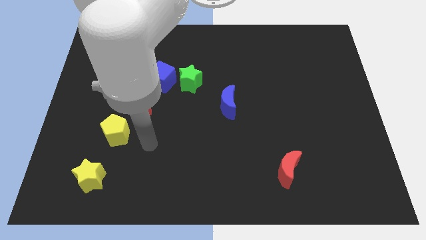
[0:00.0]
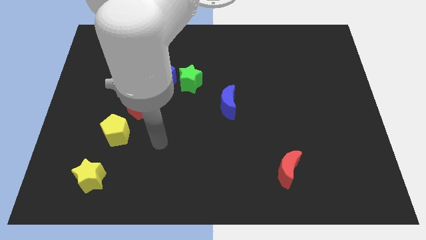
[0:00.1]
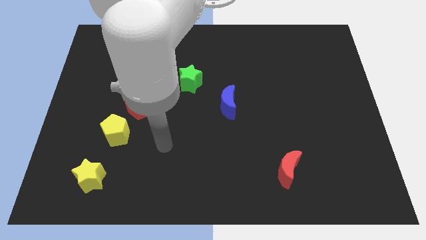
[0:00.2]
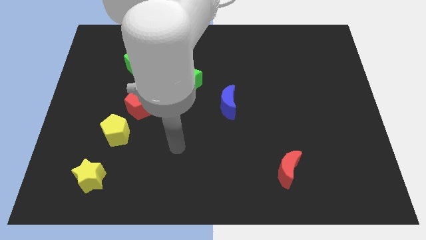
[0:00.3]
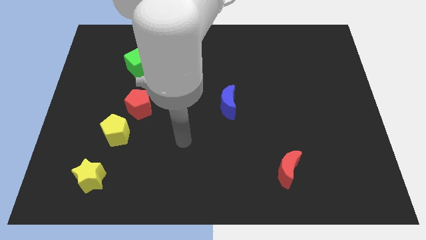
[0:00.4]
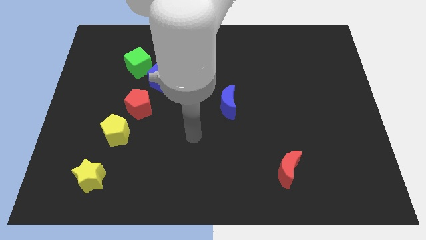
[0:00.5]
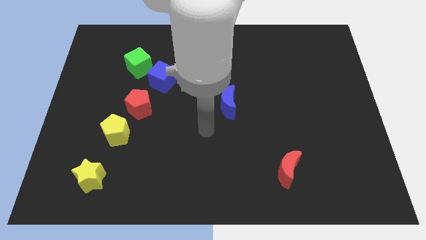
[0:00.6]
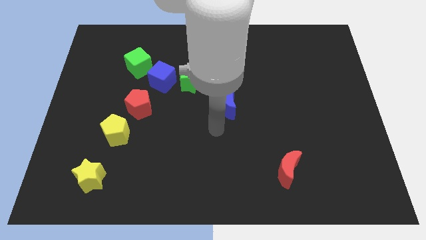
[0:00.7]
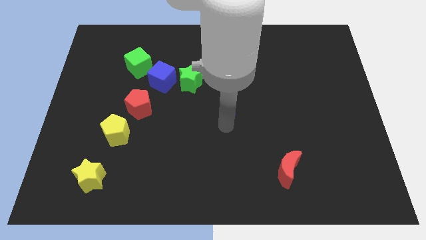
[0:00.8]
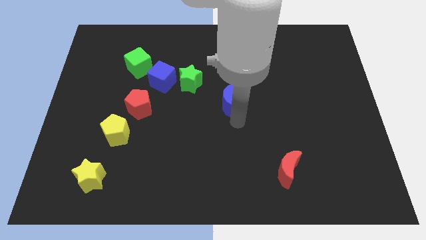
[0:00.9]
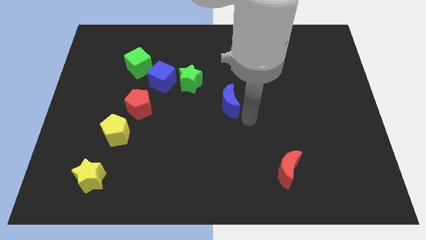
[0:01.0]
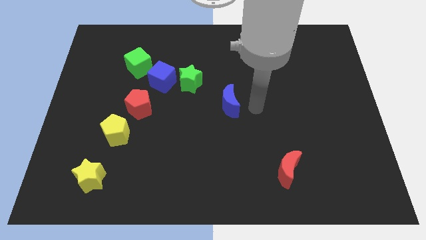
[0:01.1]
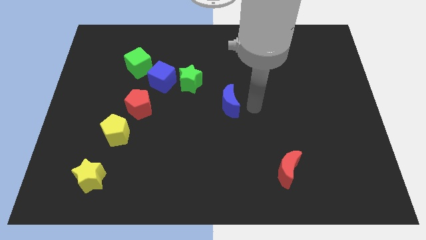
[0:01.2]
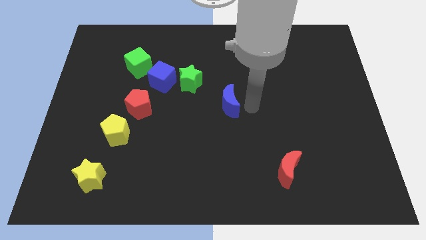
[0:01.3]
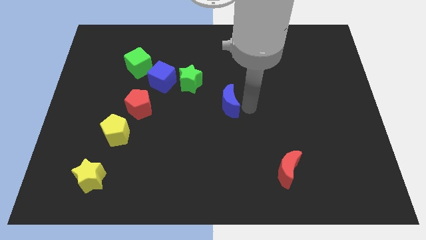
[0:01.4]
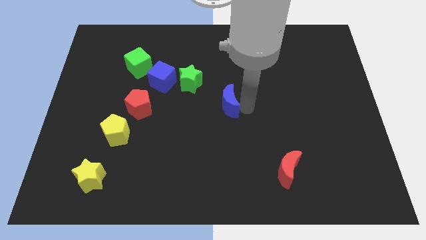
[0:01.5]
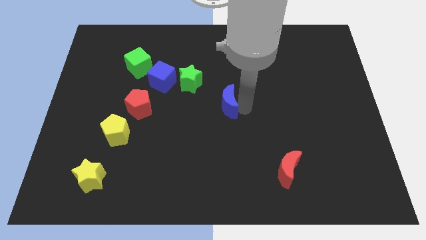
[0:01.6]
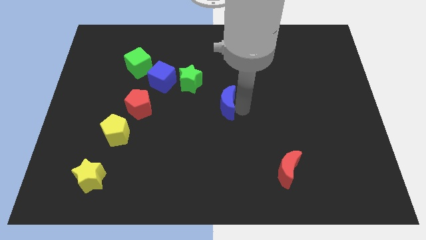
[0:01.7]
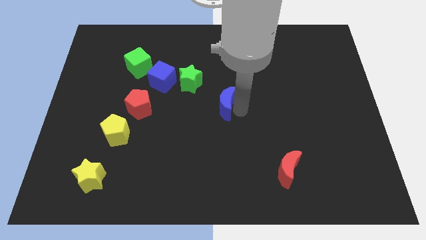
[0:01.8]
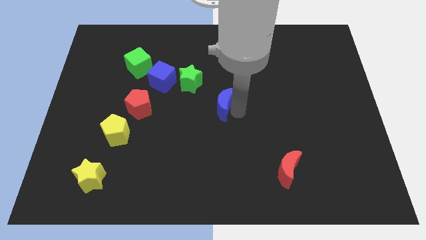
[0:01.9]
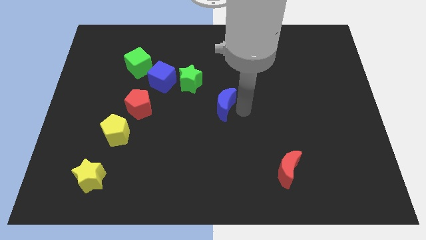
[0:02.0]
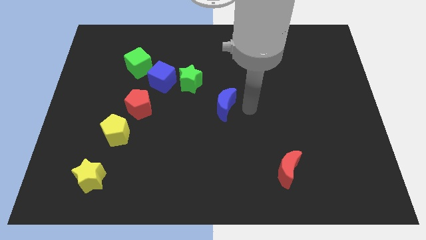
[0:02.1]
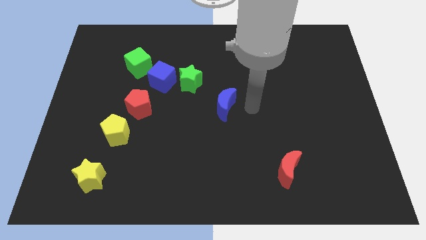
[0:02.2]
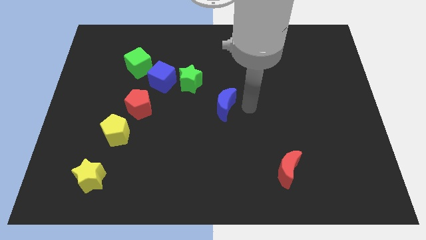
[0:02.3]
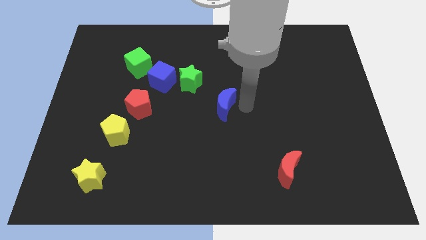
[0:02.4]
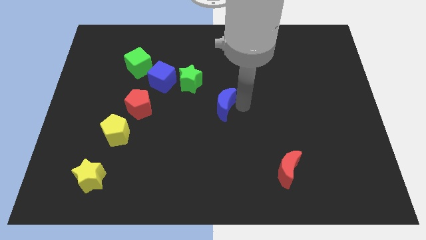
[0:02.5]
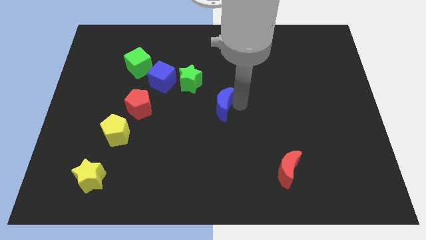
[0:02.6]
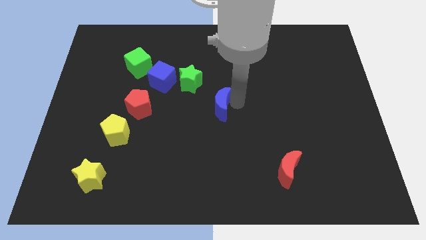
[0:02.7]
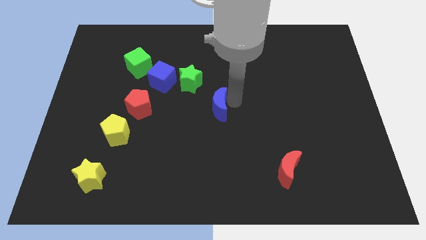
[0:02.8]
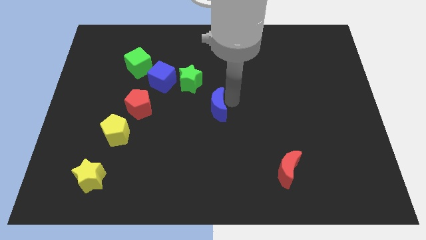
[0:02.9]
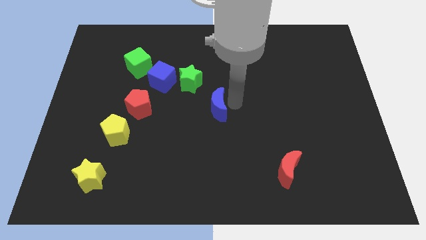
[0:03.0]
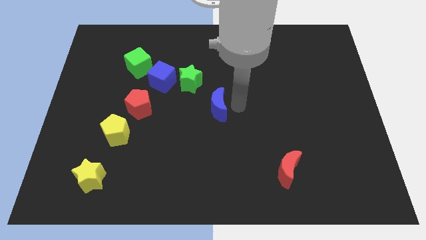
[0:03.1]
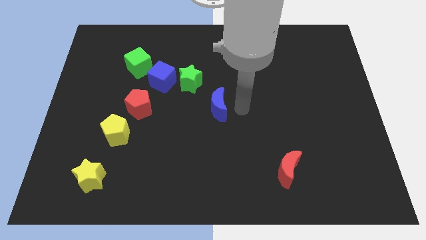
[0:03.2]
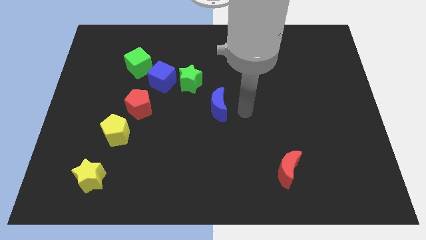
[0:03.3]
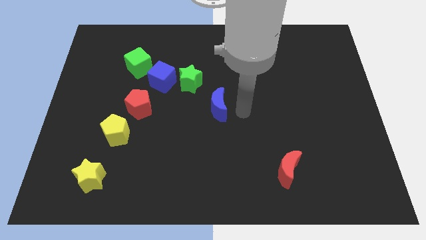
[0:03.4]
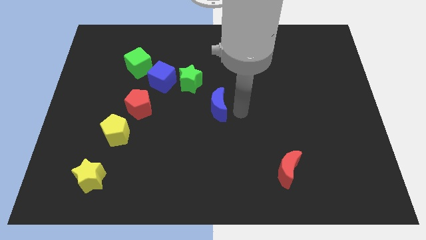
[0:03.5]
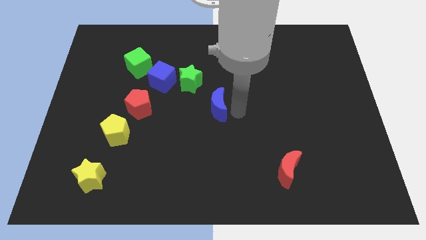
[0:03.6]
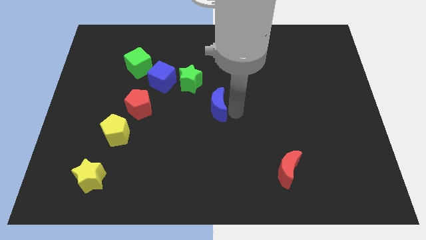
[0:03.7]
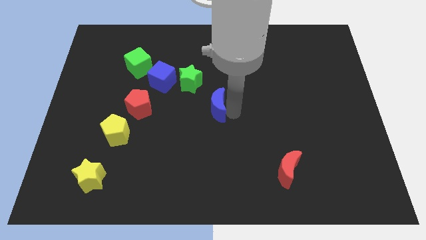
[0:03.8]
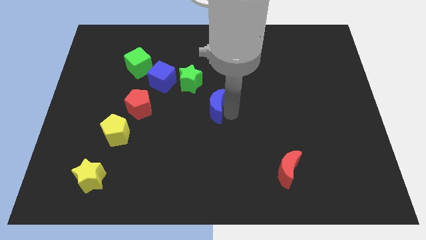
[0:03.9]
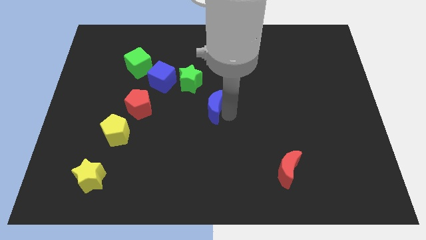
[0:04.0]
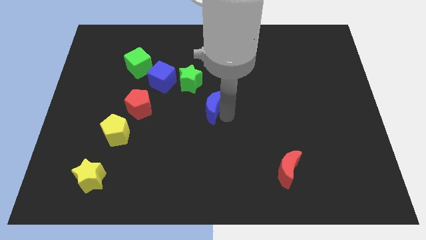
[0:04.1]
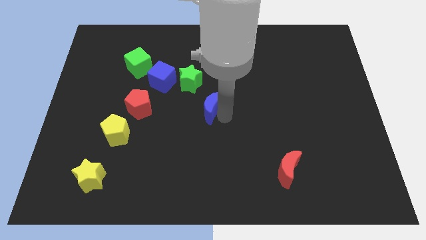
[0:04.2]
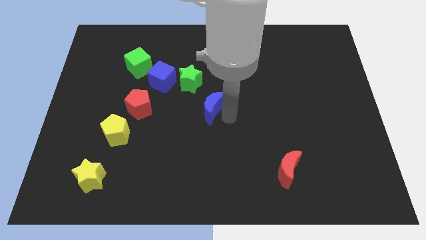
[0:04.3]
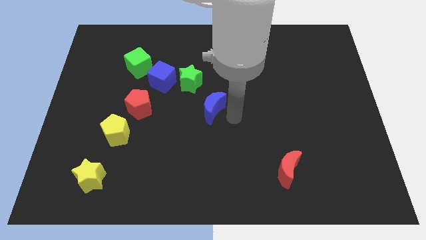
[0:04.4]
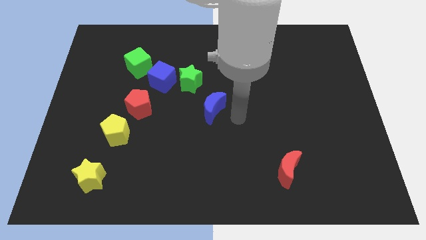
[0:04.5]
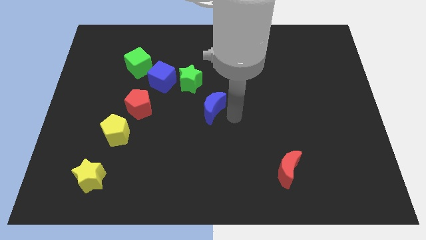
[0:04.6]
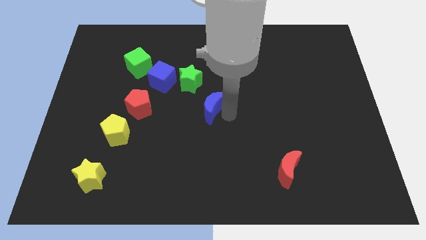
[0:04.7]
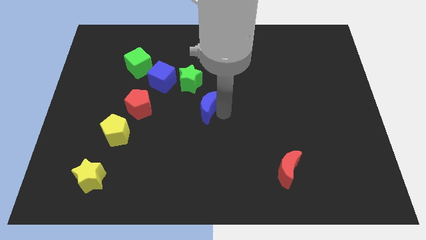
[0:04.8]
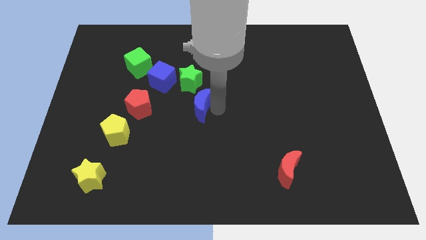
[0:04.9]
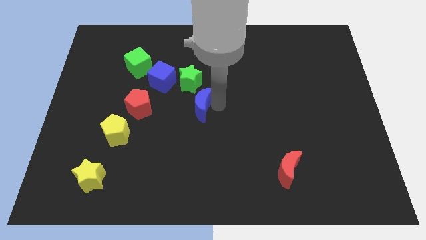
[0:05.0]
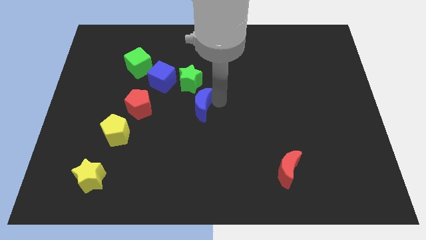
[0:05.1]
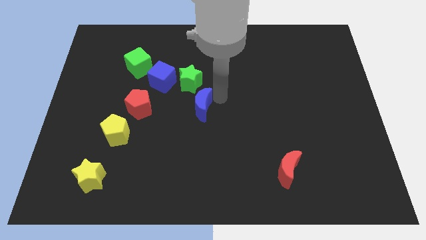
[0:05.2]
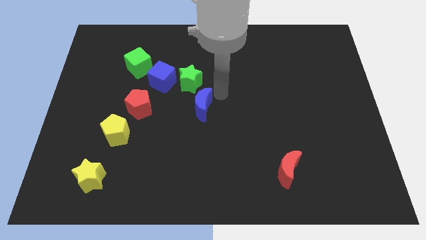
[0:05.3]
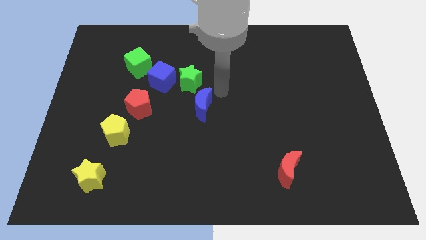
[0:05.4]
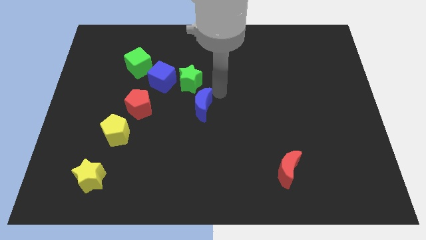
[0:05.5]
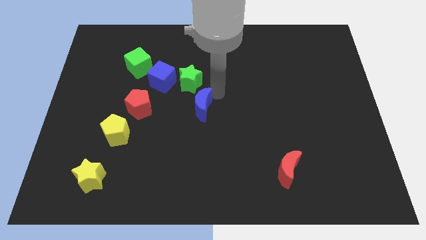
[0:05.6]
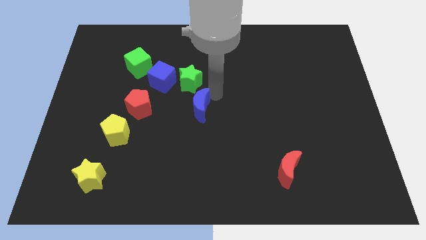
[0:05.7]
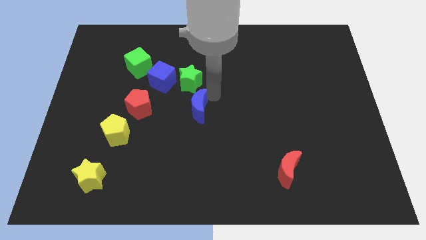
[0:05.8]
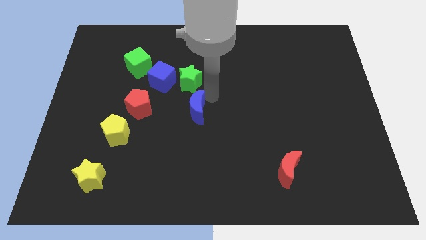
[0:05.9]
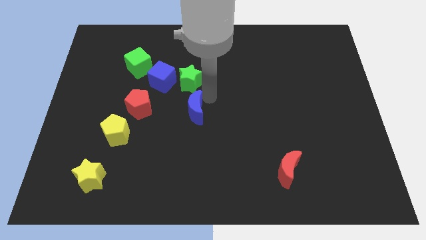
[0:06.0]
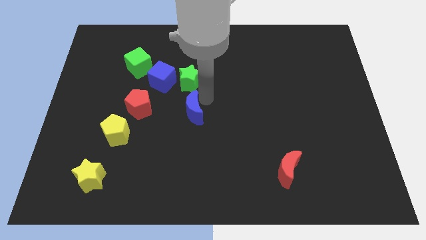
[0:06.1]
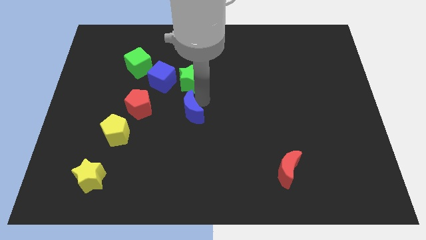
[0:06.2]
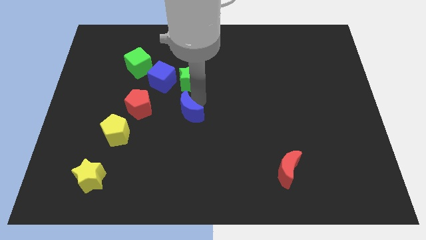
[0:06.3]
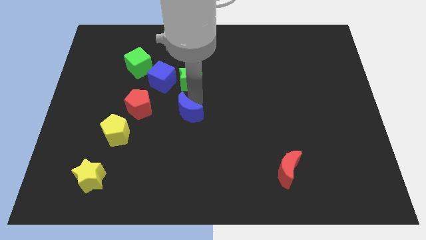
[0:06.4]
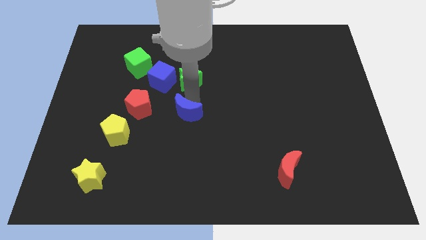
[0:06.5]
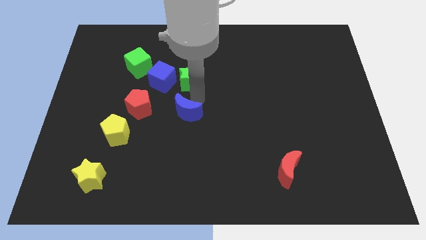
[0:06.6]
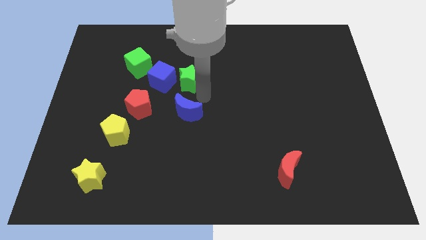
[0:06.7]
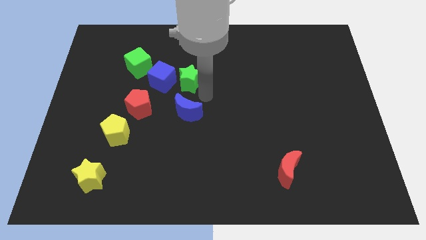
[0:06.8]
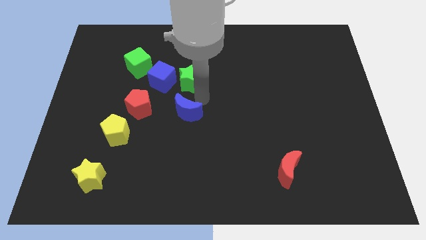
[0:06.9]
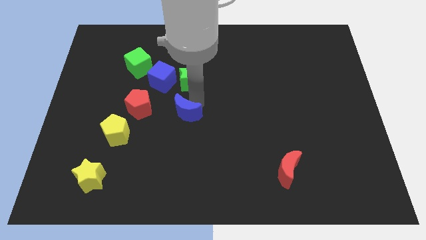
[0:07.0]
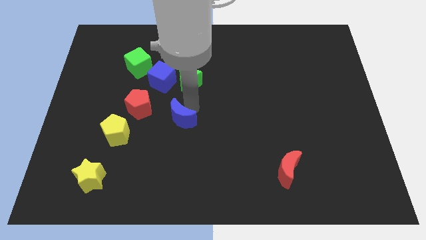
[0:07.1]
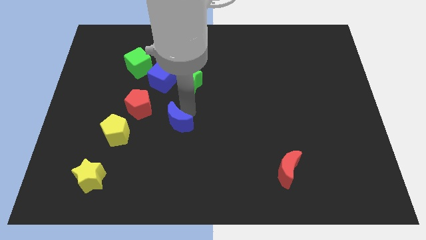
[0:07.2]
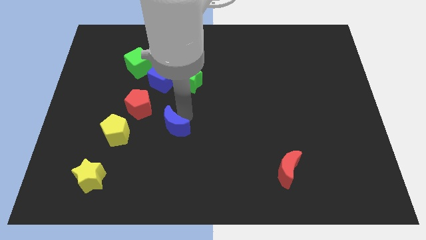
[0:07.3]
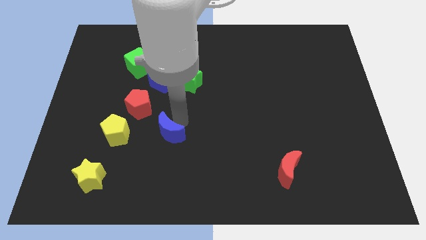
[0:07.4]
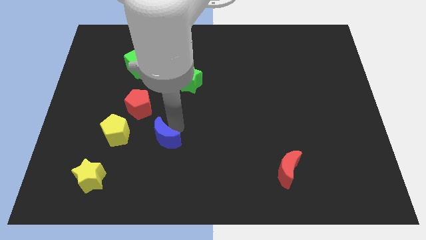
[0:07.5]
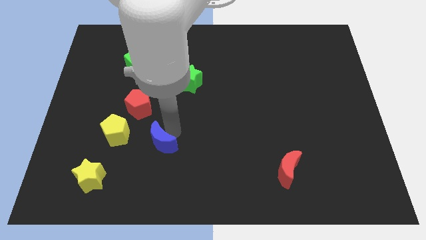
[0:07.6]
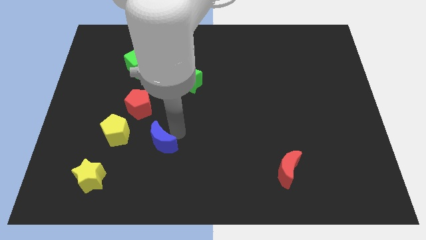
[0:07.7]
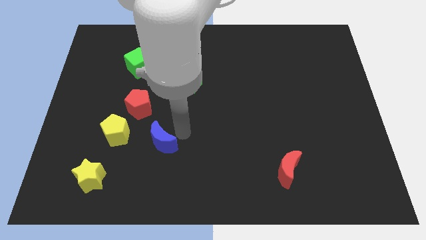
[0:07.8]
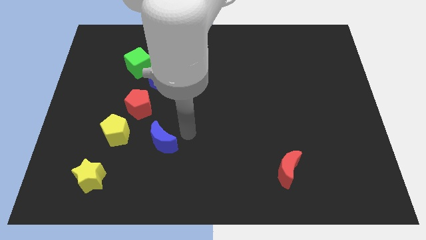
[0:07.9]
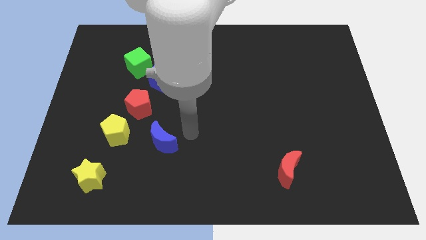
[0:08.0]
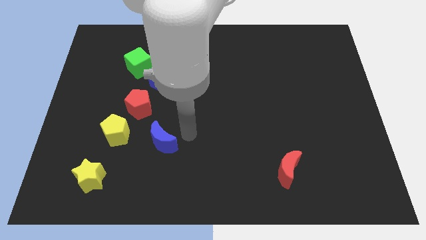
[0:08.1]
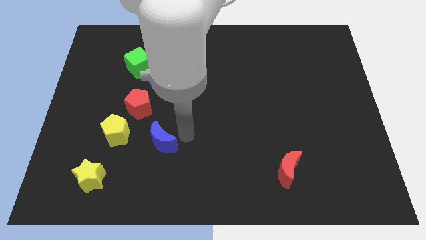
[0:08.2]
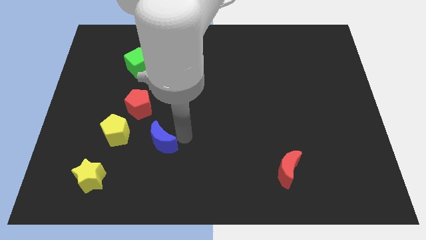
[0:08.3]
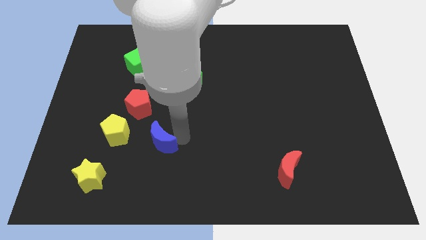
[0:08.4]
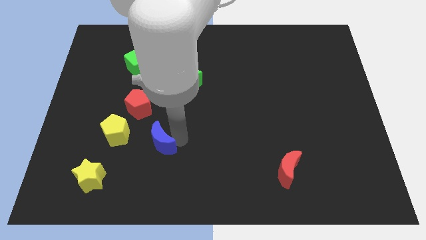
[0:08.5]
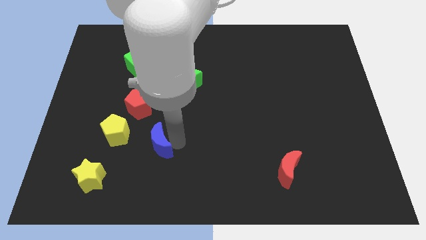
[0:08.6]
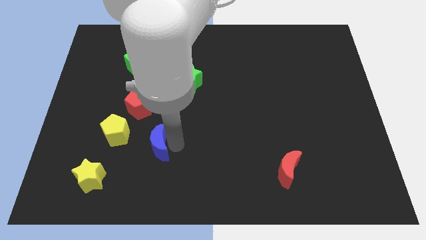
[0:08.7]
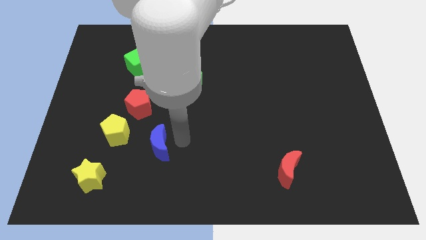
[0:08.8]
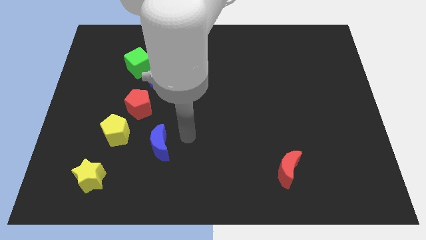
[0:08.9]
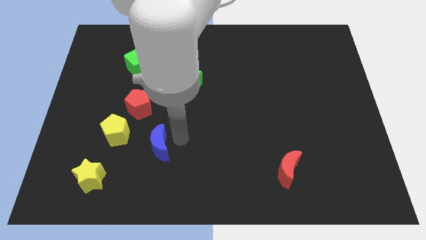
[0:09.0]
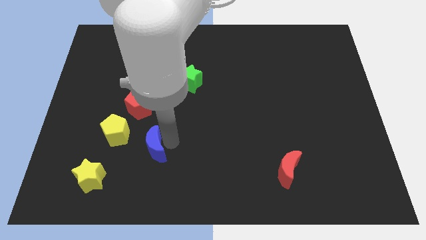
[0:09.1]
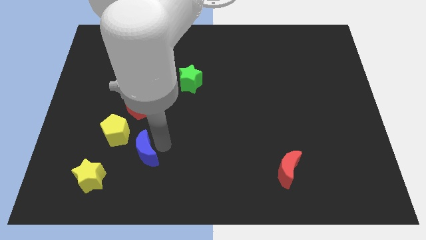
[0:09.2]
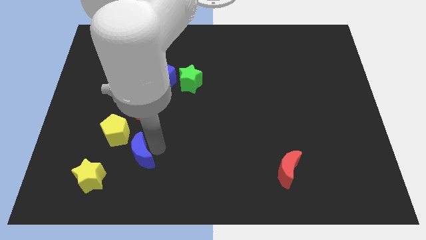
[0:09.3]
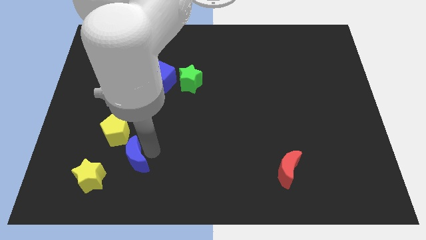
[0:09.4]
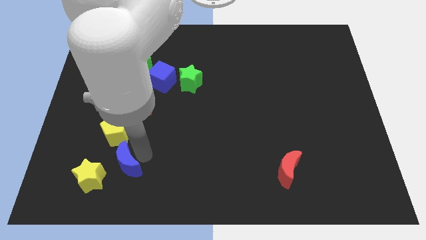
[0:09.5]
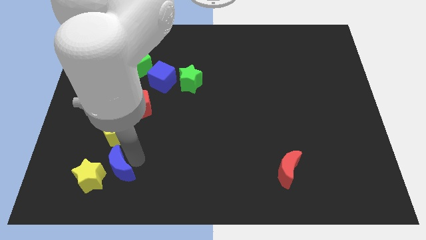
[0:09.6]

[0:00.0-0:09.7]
slide the blue moon close to the yellow star
